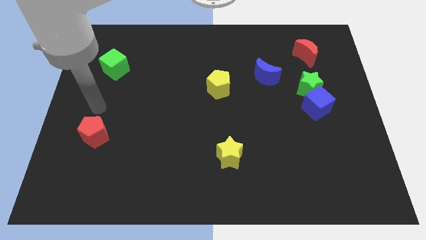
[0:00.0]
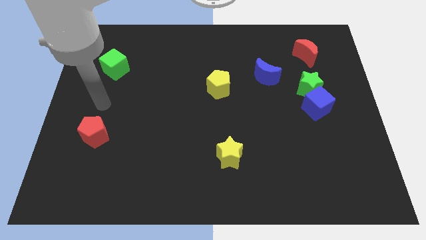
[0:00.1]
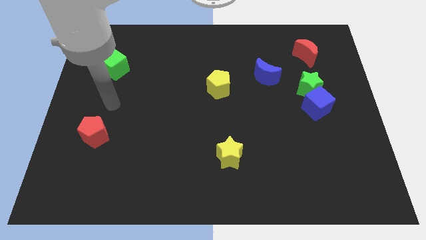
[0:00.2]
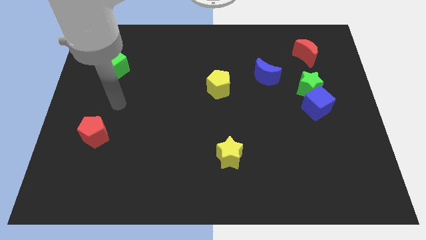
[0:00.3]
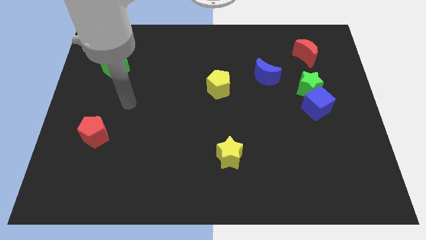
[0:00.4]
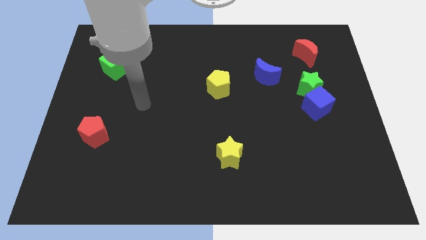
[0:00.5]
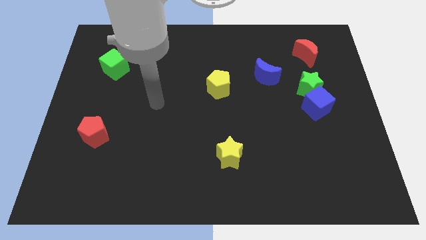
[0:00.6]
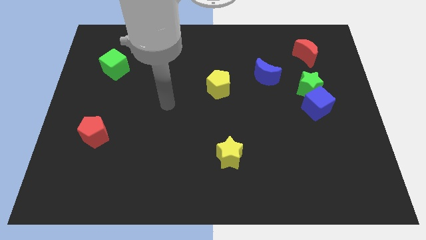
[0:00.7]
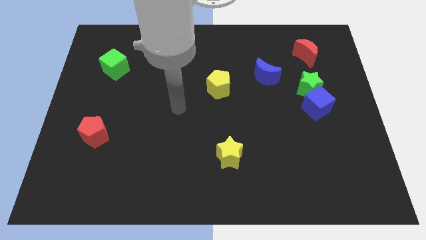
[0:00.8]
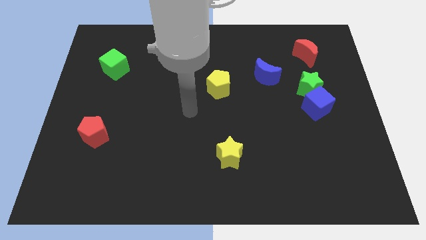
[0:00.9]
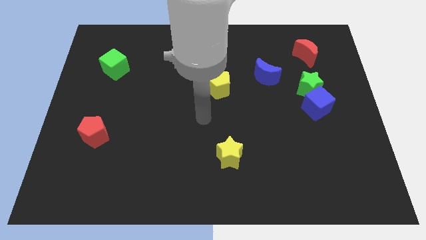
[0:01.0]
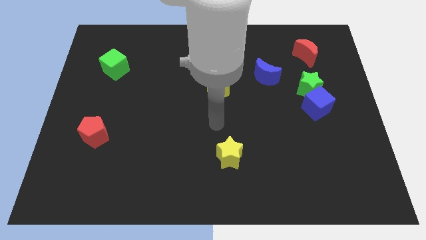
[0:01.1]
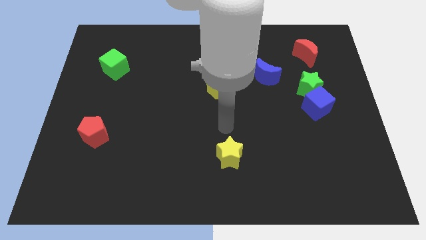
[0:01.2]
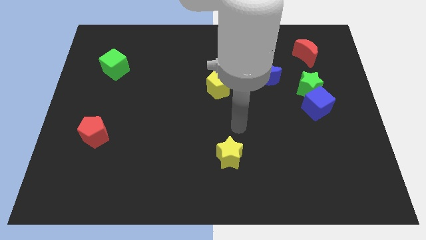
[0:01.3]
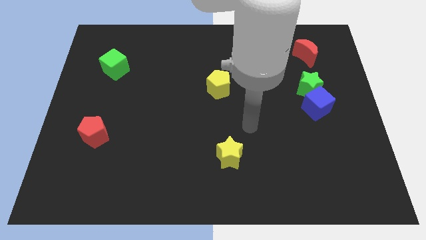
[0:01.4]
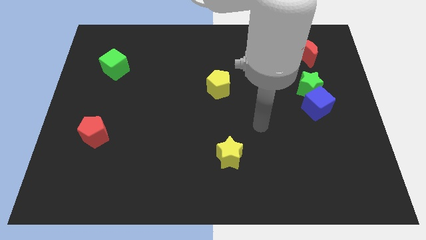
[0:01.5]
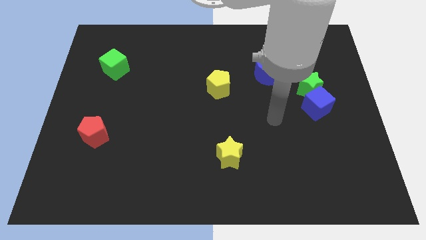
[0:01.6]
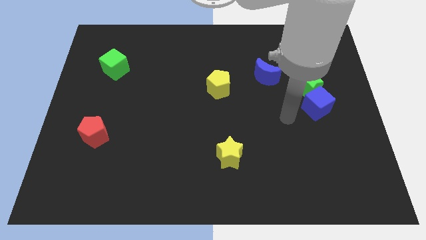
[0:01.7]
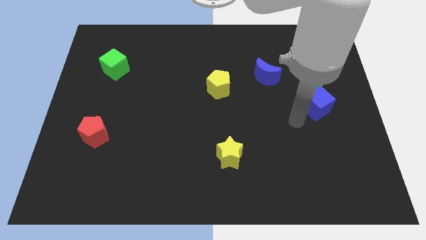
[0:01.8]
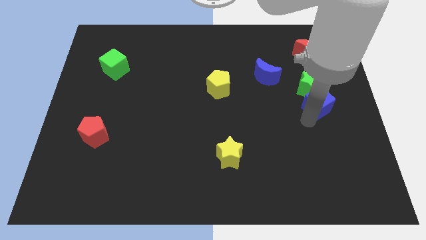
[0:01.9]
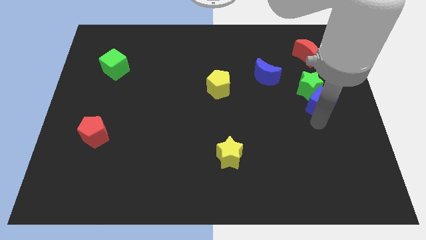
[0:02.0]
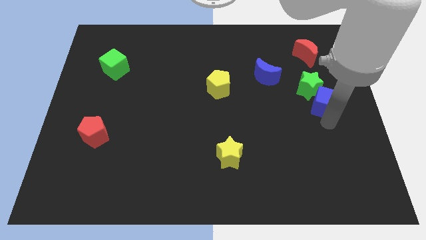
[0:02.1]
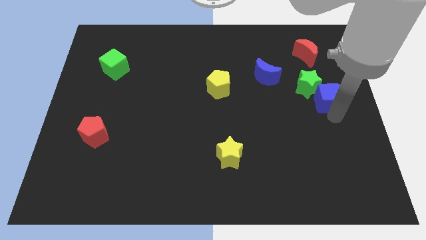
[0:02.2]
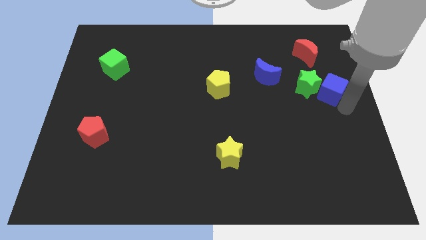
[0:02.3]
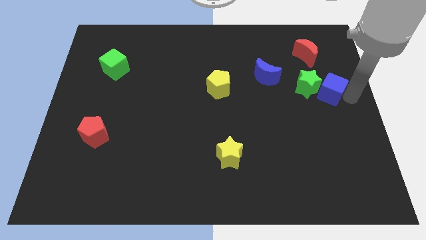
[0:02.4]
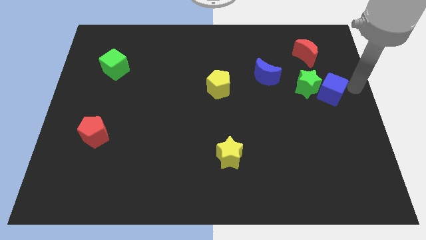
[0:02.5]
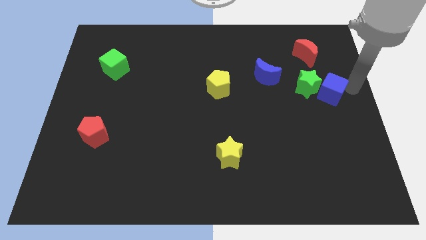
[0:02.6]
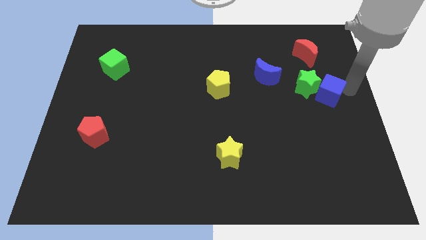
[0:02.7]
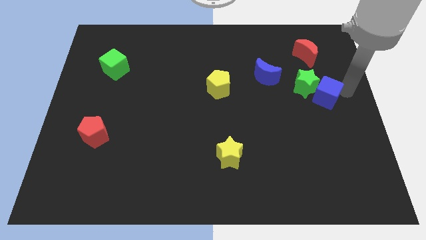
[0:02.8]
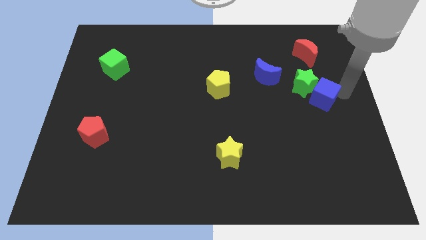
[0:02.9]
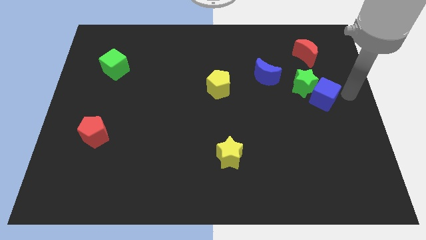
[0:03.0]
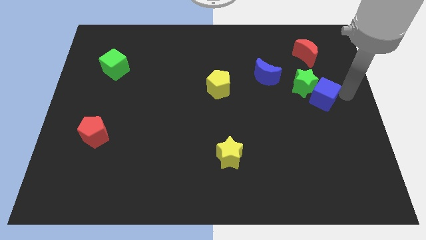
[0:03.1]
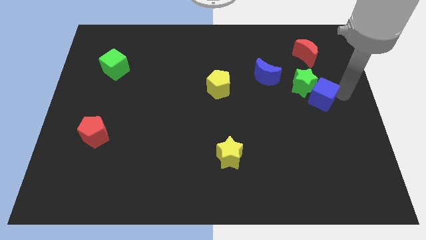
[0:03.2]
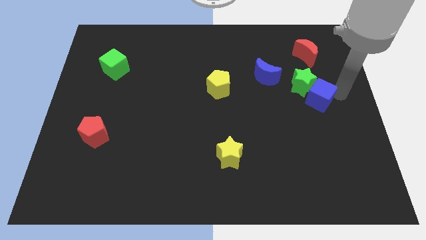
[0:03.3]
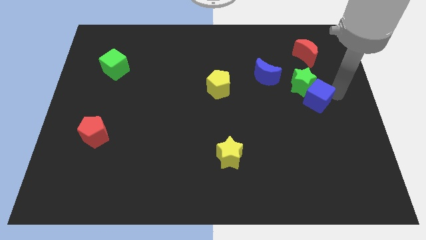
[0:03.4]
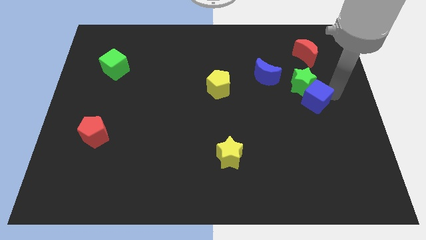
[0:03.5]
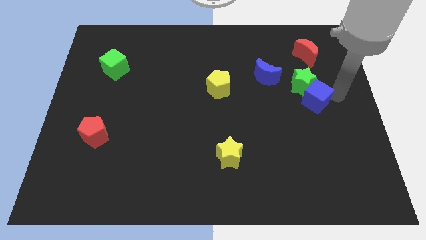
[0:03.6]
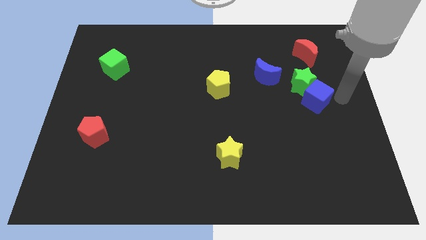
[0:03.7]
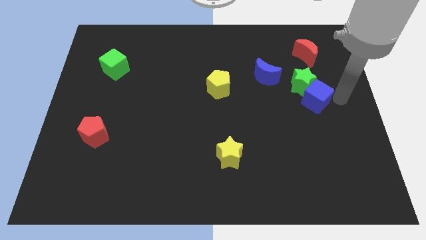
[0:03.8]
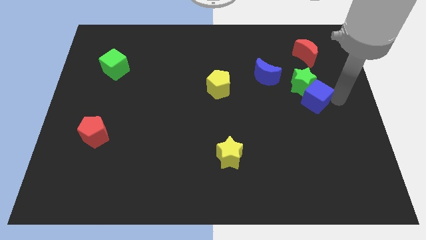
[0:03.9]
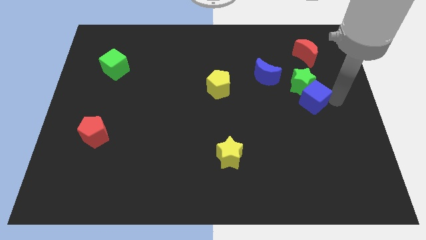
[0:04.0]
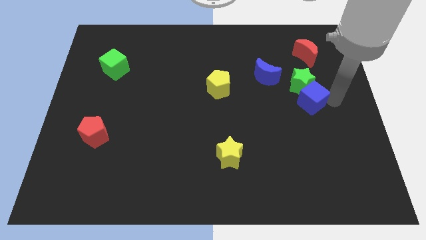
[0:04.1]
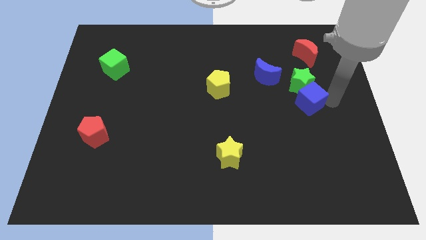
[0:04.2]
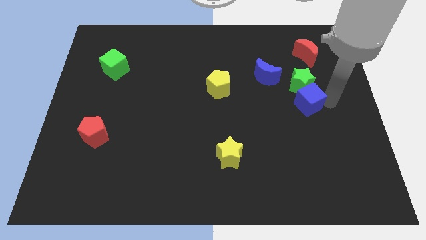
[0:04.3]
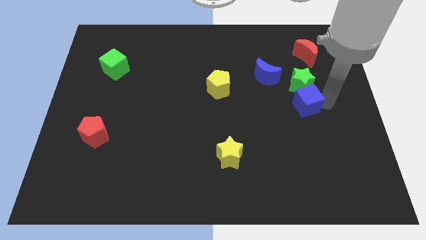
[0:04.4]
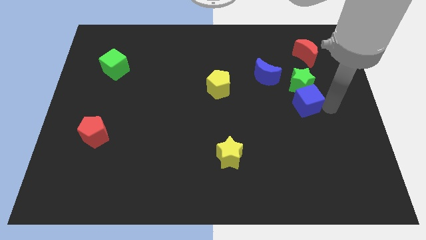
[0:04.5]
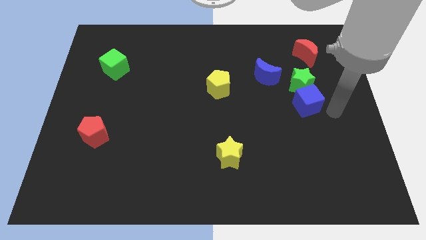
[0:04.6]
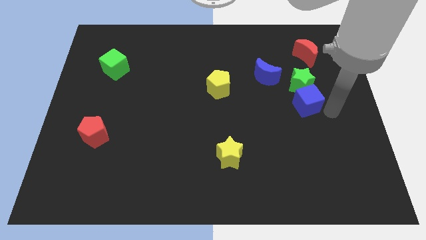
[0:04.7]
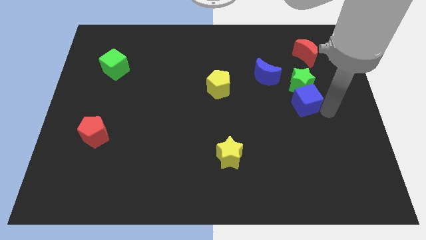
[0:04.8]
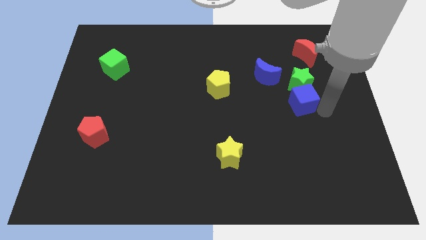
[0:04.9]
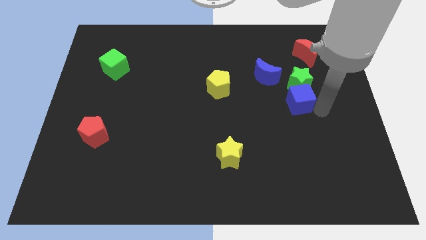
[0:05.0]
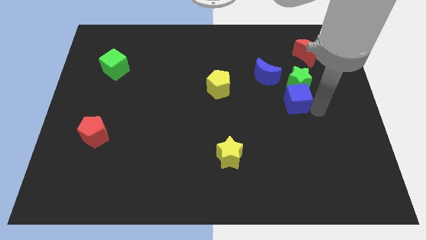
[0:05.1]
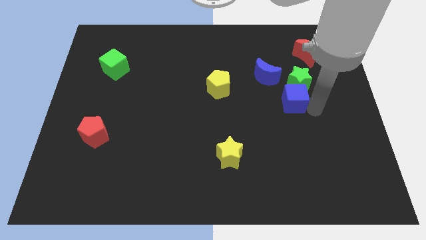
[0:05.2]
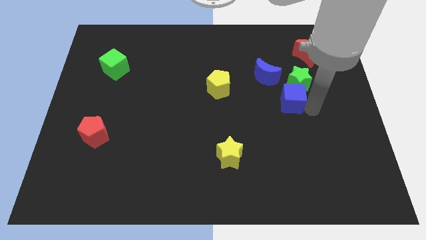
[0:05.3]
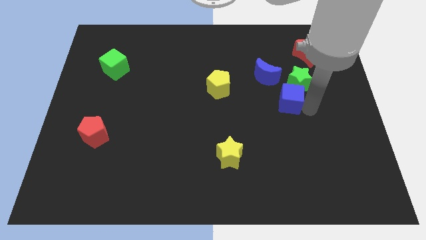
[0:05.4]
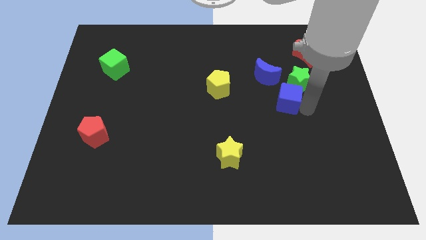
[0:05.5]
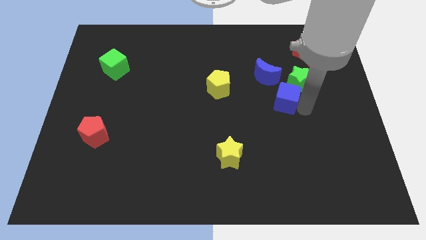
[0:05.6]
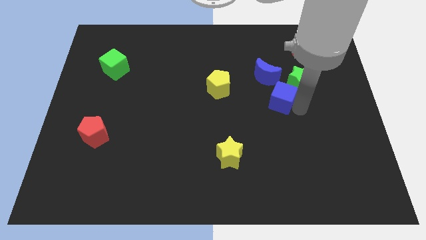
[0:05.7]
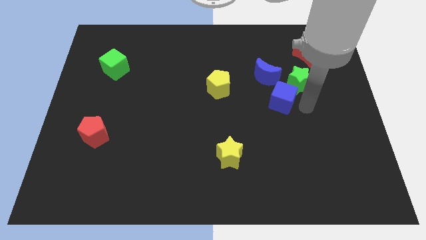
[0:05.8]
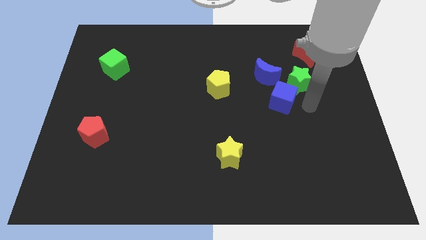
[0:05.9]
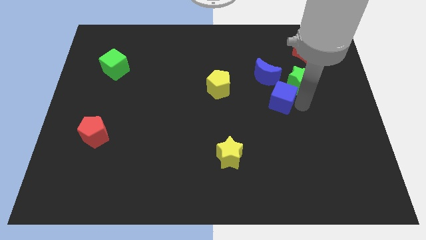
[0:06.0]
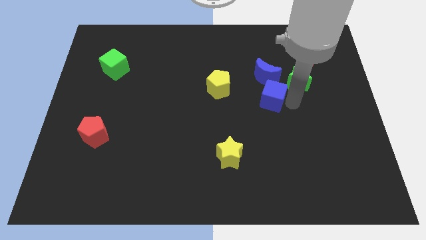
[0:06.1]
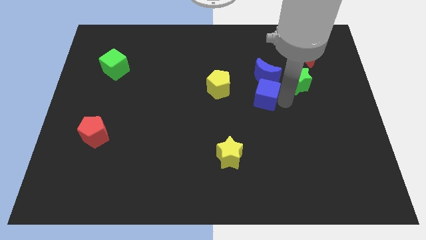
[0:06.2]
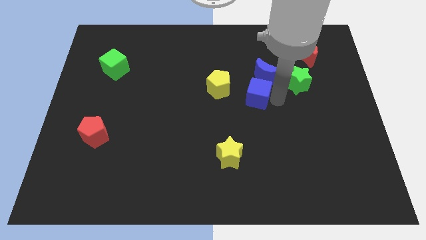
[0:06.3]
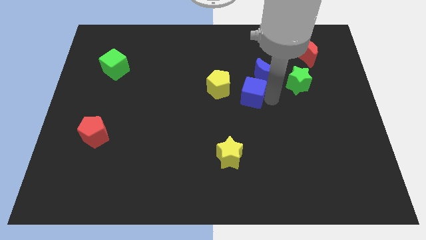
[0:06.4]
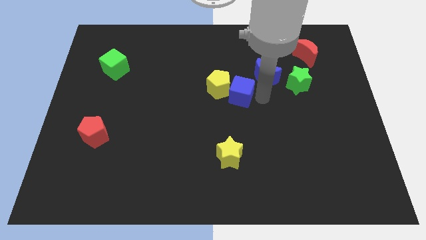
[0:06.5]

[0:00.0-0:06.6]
slide the blue cube to the yellow pentagon
